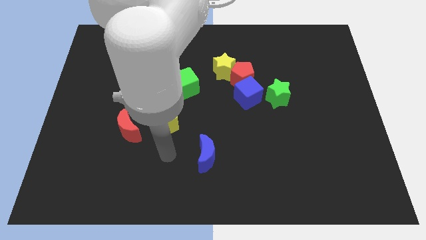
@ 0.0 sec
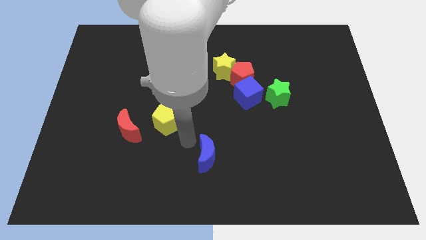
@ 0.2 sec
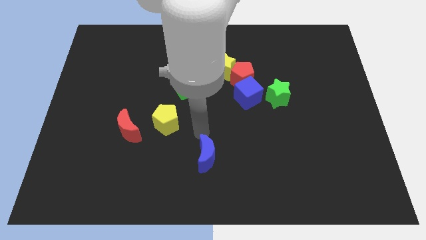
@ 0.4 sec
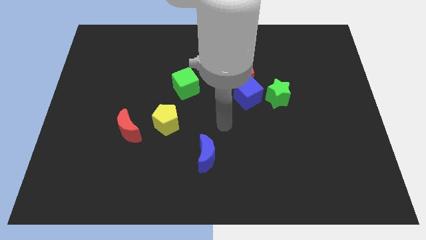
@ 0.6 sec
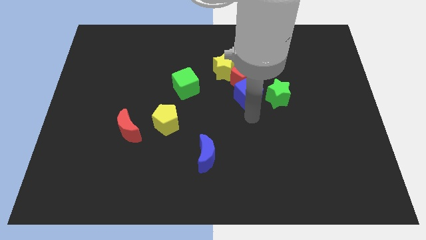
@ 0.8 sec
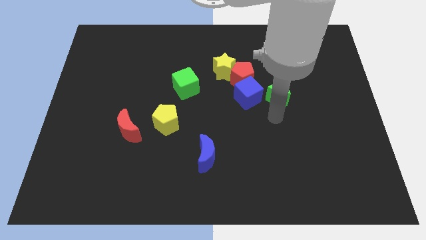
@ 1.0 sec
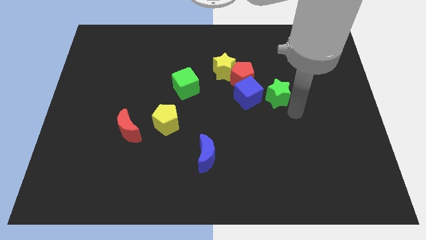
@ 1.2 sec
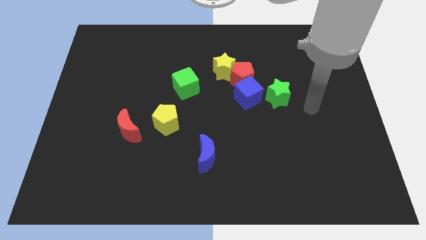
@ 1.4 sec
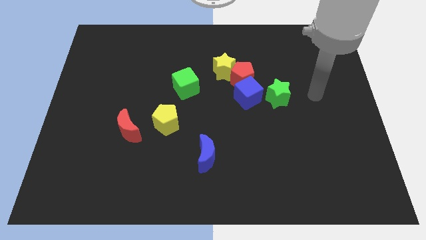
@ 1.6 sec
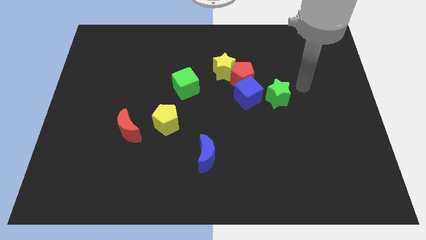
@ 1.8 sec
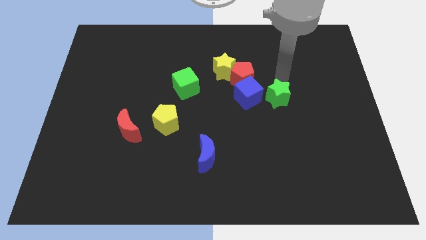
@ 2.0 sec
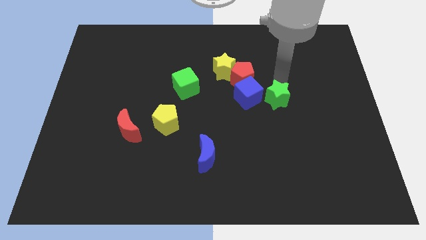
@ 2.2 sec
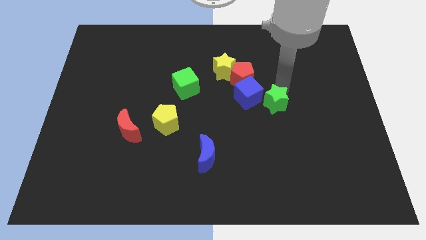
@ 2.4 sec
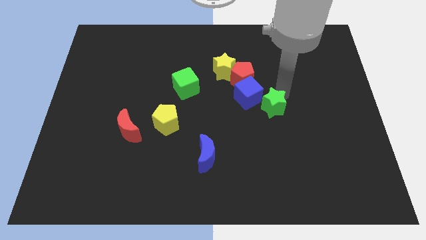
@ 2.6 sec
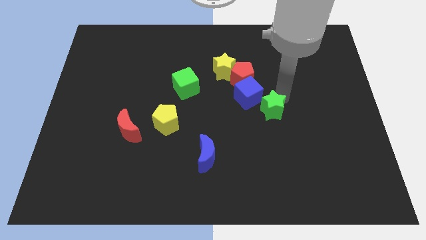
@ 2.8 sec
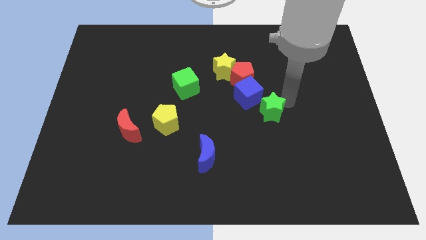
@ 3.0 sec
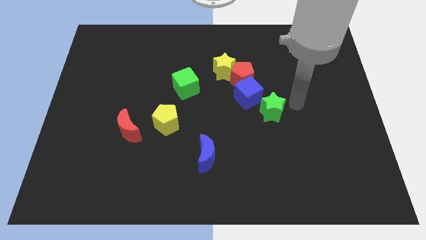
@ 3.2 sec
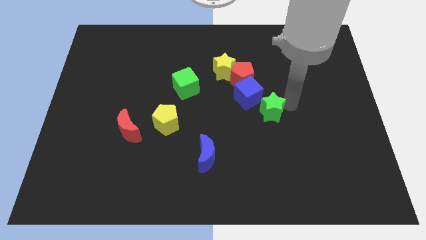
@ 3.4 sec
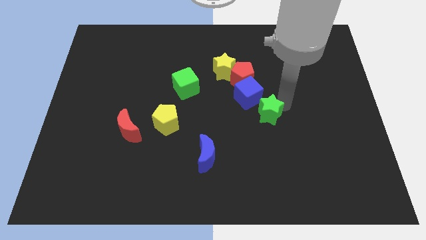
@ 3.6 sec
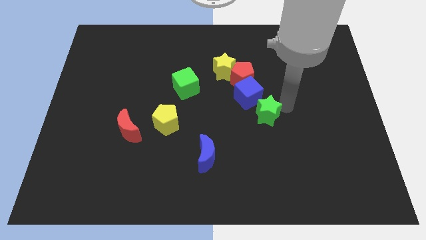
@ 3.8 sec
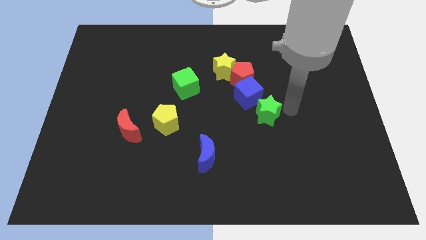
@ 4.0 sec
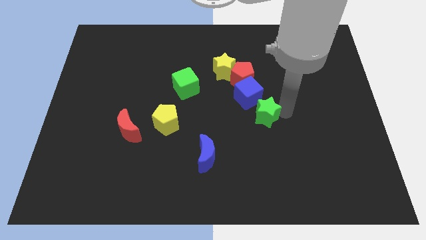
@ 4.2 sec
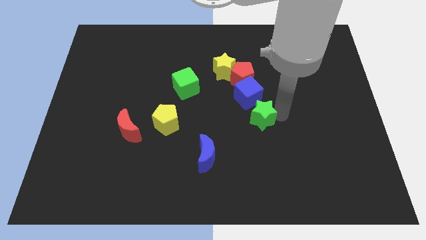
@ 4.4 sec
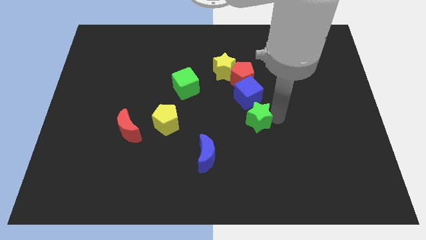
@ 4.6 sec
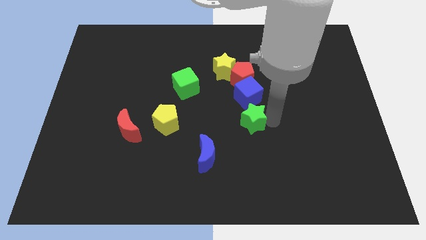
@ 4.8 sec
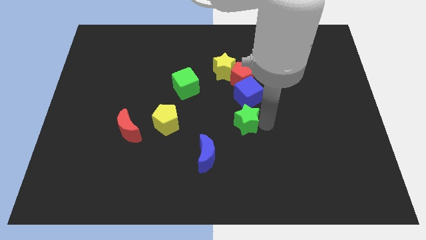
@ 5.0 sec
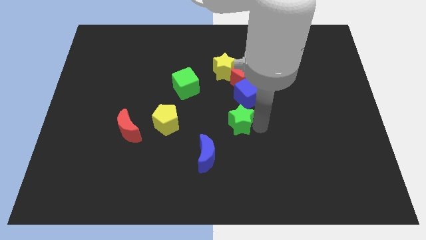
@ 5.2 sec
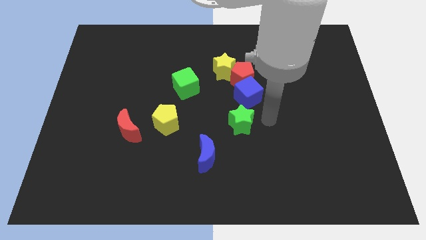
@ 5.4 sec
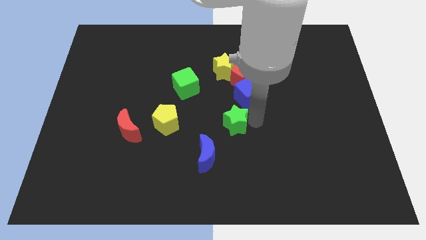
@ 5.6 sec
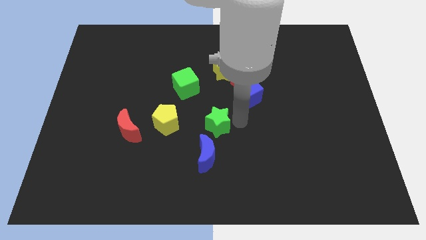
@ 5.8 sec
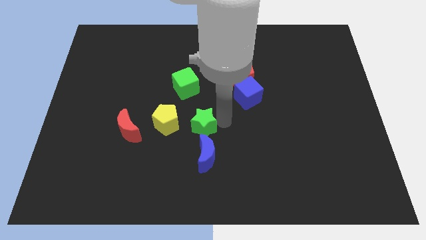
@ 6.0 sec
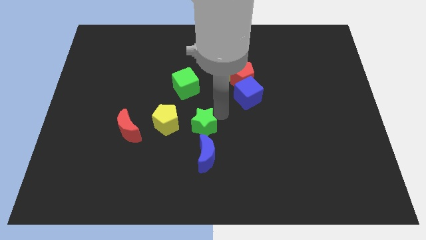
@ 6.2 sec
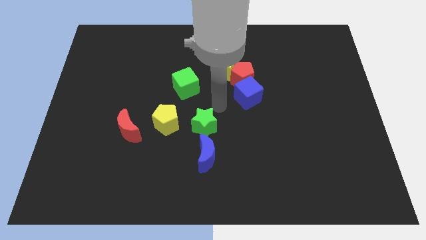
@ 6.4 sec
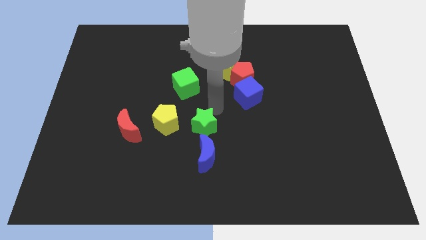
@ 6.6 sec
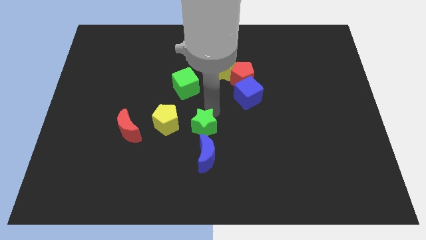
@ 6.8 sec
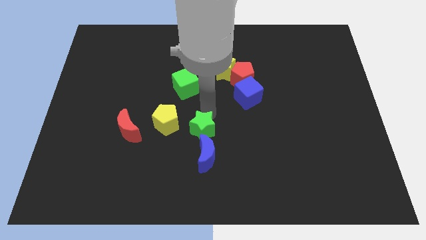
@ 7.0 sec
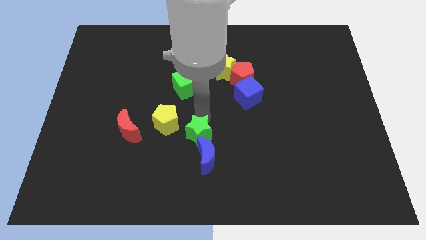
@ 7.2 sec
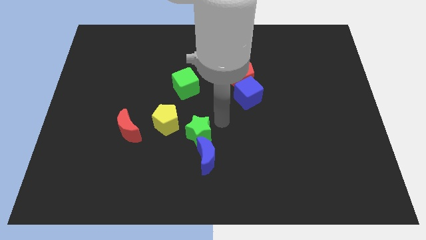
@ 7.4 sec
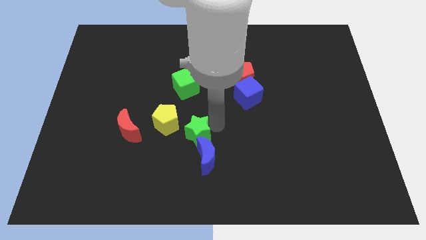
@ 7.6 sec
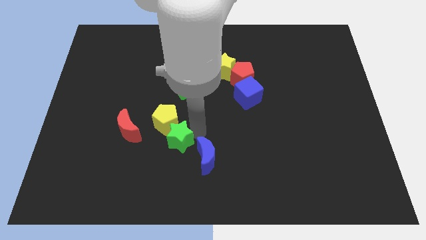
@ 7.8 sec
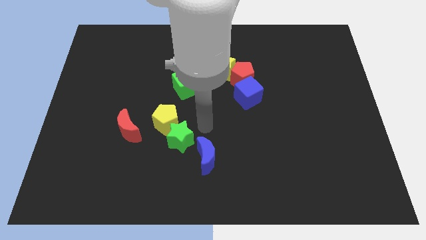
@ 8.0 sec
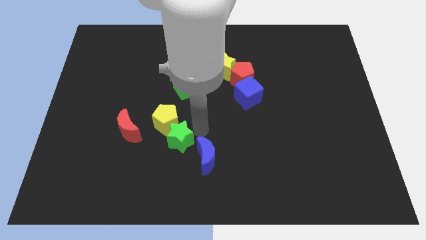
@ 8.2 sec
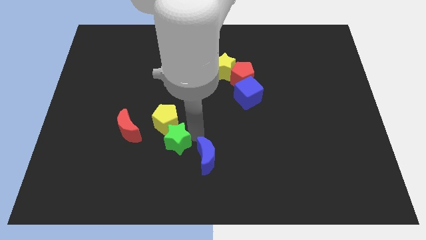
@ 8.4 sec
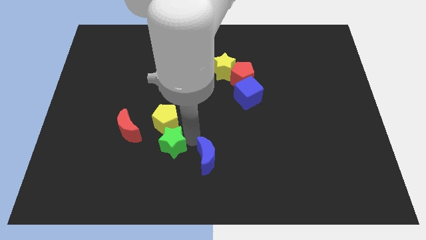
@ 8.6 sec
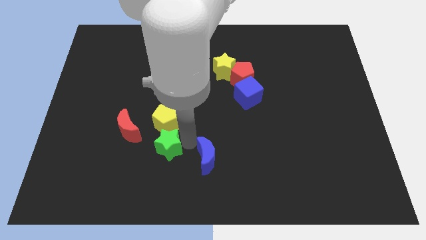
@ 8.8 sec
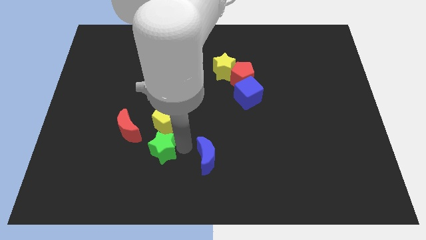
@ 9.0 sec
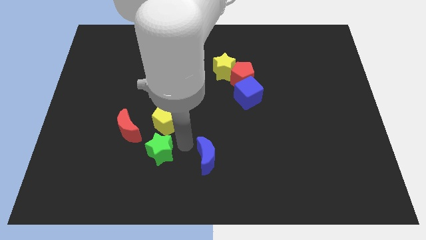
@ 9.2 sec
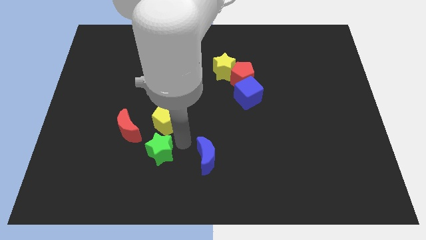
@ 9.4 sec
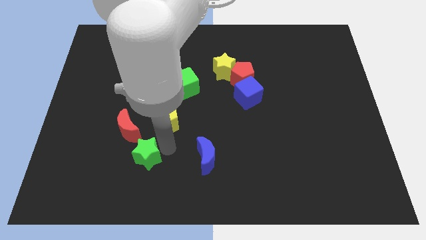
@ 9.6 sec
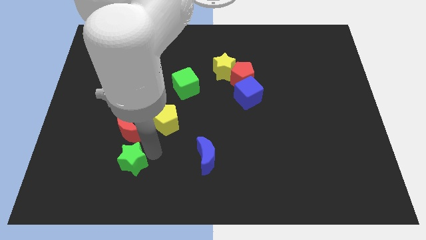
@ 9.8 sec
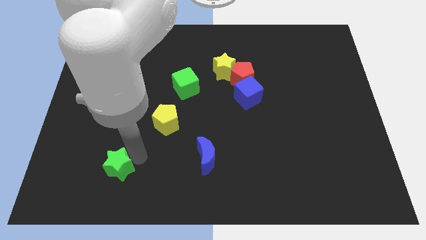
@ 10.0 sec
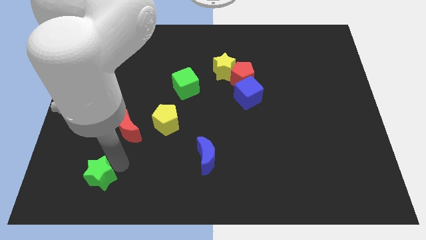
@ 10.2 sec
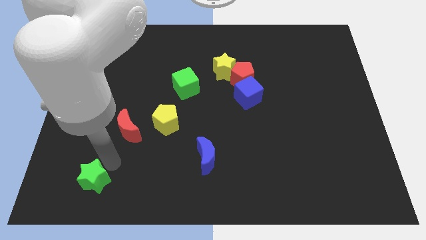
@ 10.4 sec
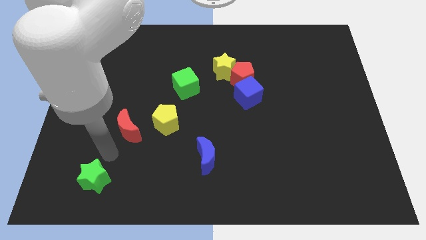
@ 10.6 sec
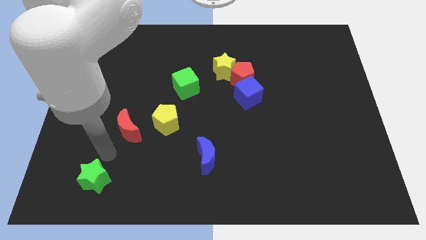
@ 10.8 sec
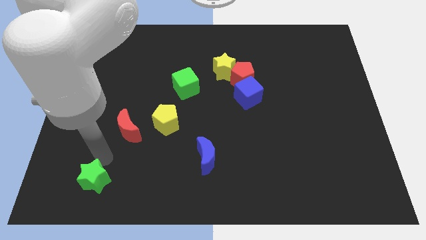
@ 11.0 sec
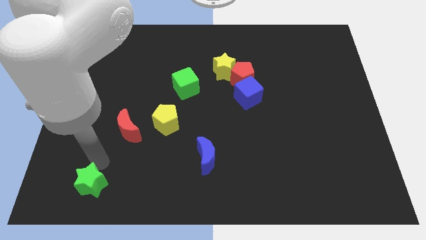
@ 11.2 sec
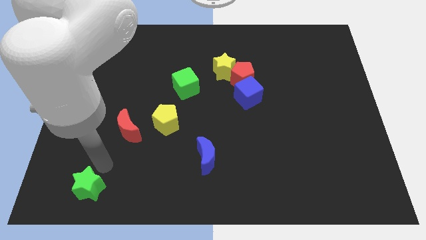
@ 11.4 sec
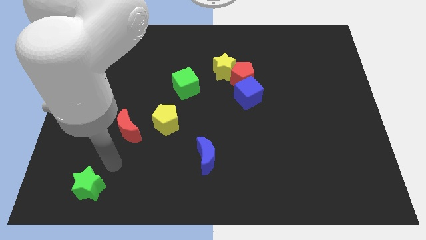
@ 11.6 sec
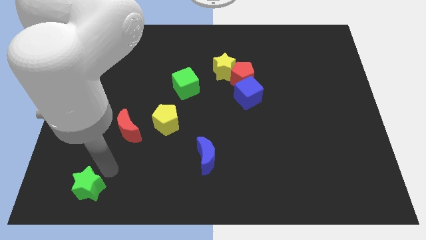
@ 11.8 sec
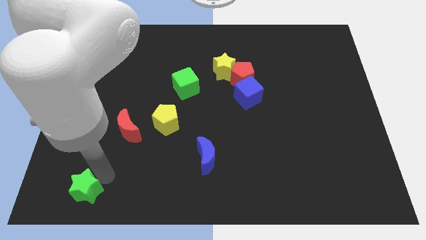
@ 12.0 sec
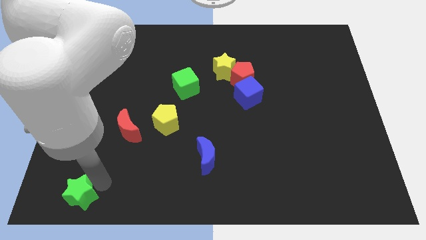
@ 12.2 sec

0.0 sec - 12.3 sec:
slide the green star to the lower left corner
